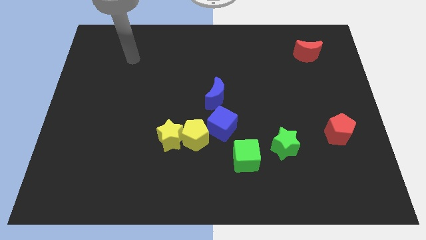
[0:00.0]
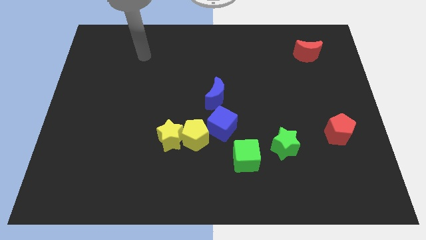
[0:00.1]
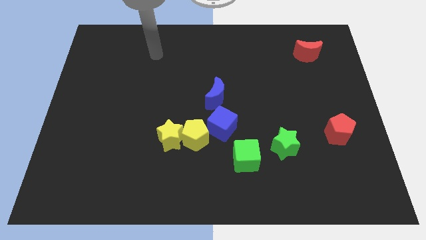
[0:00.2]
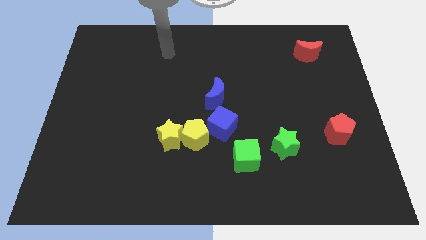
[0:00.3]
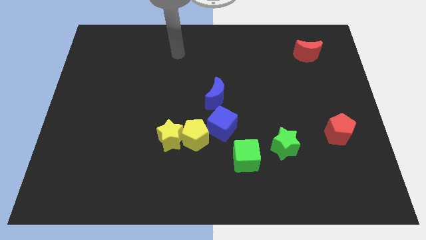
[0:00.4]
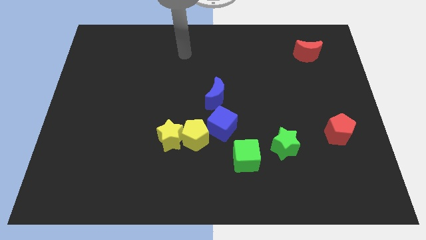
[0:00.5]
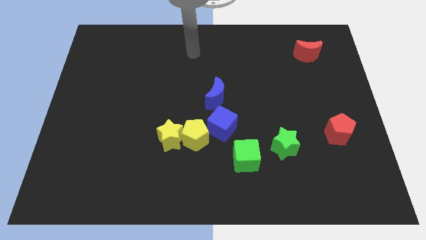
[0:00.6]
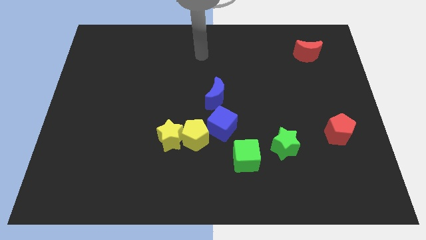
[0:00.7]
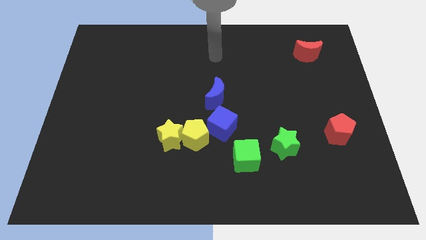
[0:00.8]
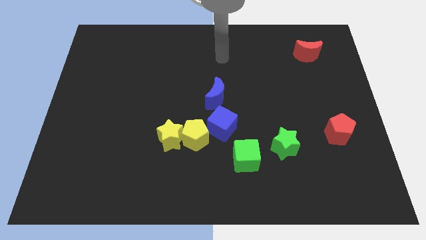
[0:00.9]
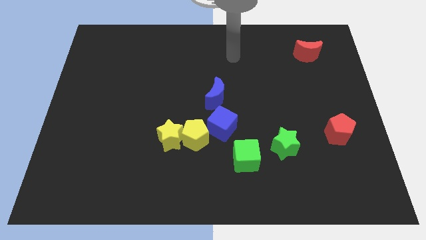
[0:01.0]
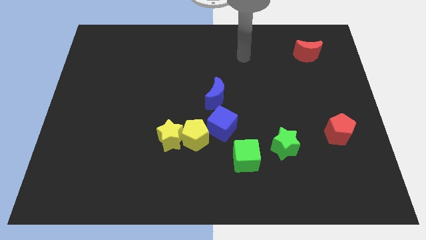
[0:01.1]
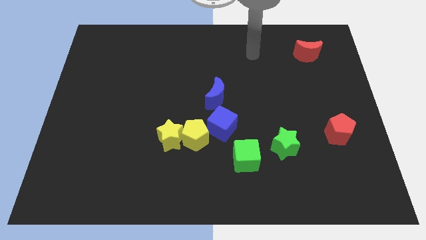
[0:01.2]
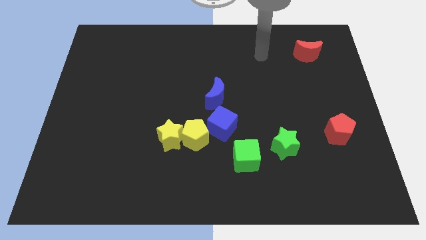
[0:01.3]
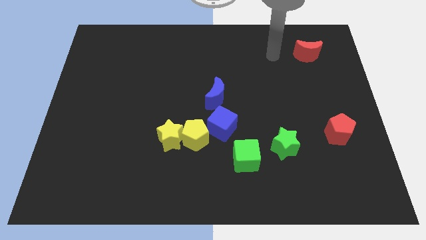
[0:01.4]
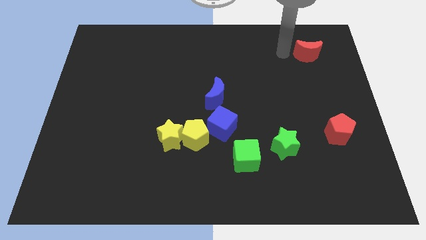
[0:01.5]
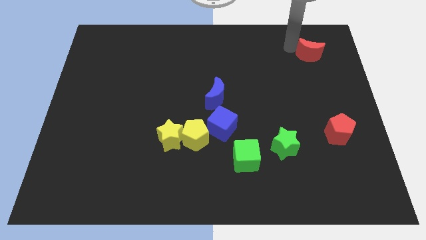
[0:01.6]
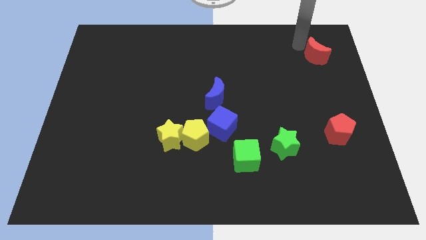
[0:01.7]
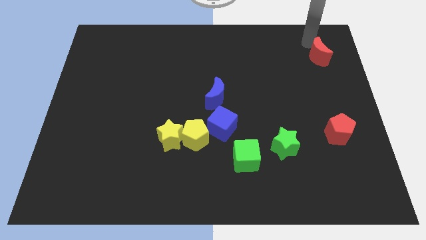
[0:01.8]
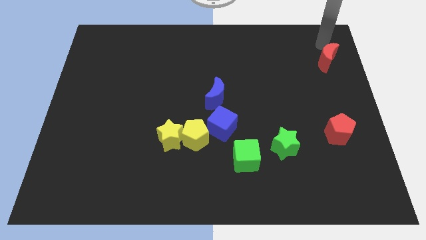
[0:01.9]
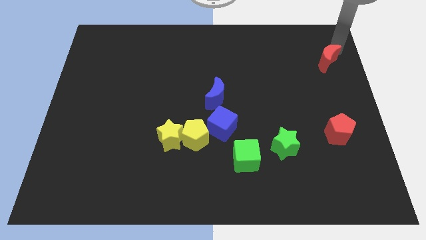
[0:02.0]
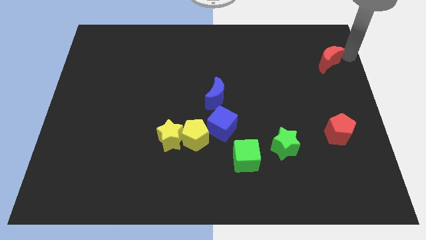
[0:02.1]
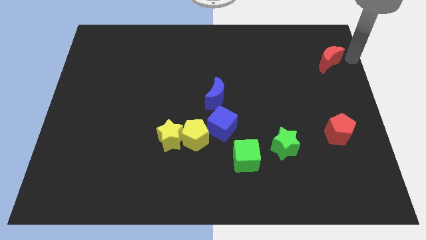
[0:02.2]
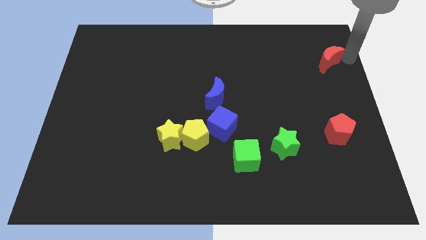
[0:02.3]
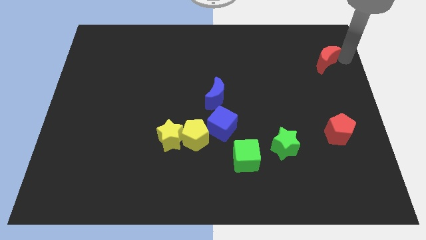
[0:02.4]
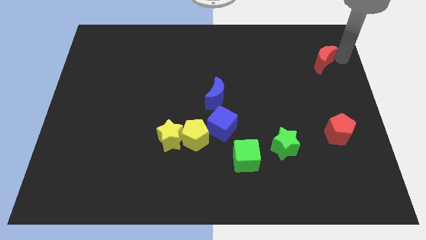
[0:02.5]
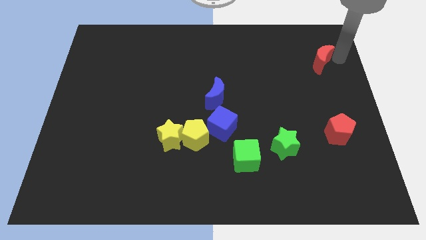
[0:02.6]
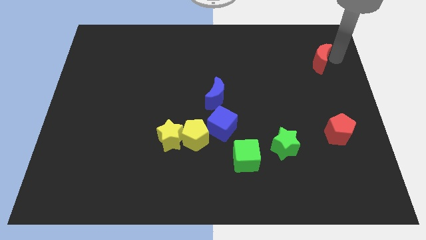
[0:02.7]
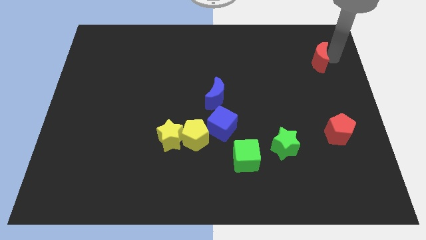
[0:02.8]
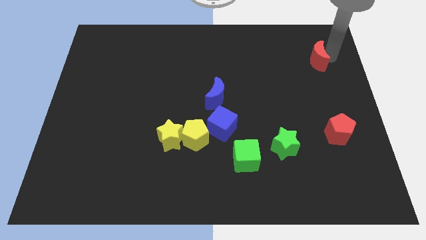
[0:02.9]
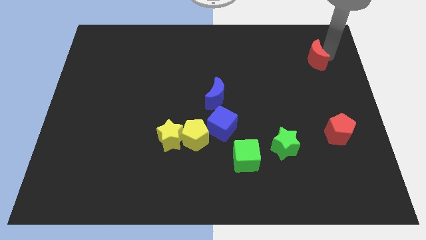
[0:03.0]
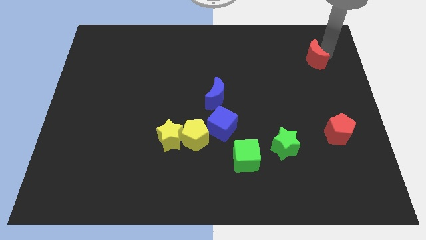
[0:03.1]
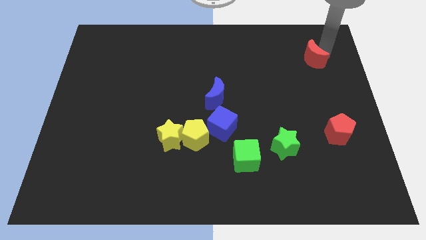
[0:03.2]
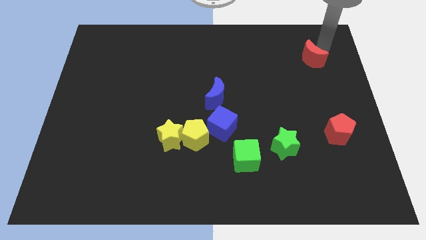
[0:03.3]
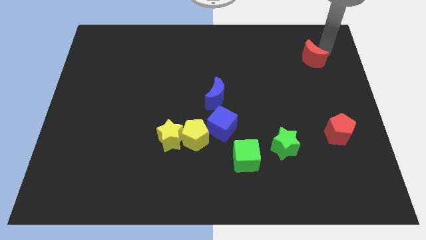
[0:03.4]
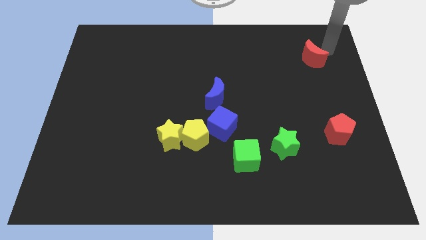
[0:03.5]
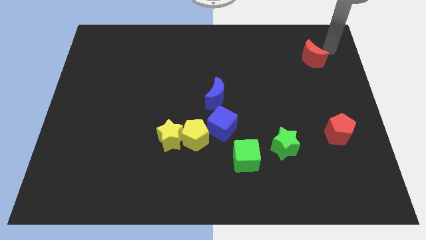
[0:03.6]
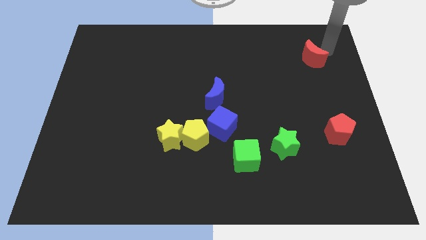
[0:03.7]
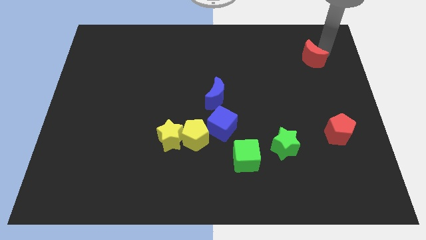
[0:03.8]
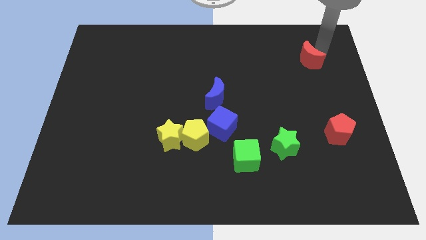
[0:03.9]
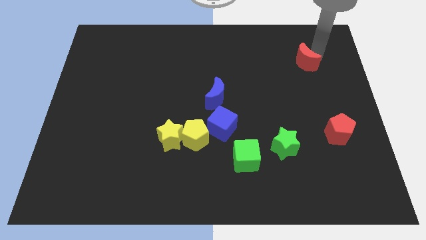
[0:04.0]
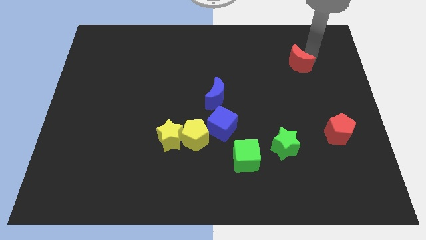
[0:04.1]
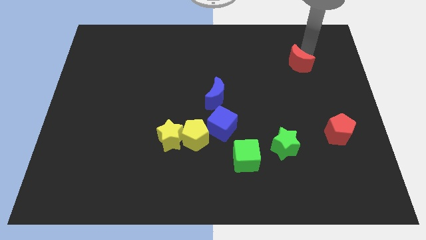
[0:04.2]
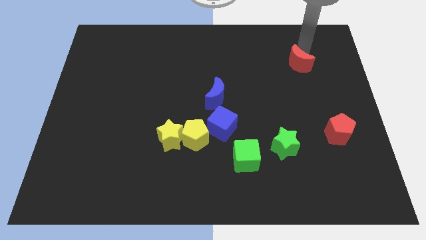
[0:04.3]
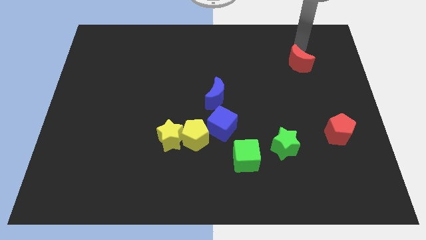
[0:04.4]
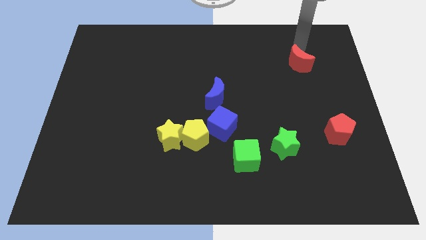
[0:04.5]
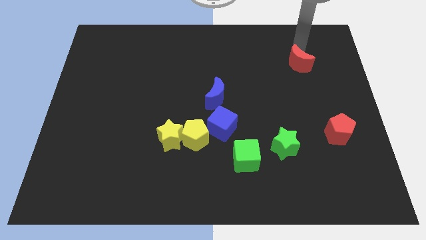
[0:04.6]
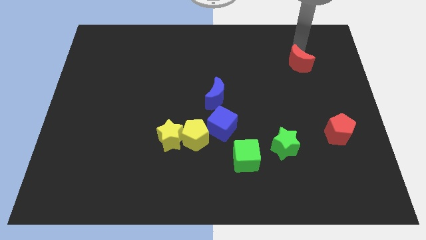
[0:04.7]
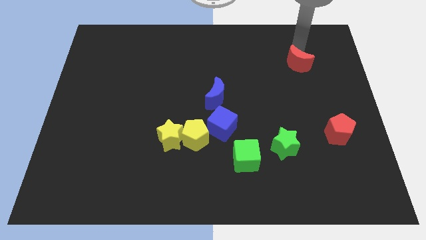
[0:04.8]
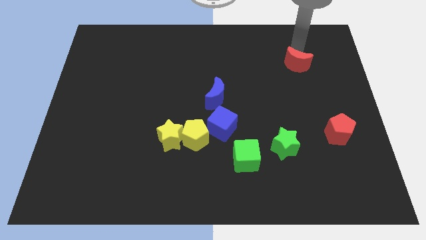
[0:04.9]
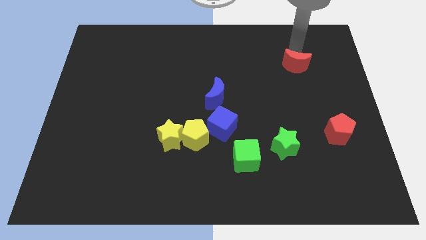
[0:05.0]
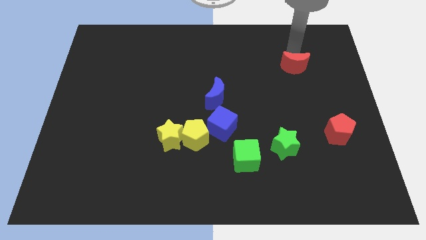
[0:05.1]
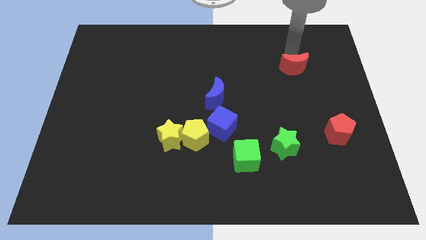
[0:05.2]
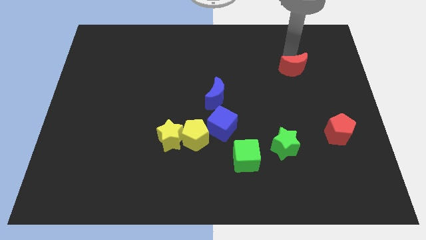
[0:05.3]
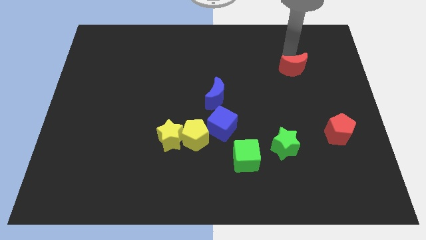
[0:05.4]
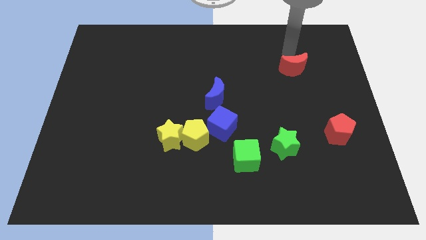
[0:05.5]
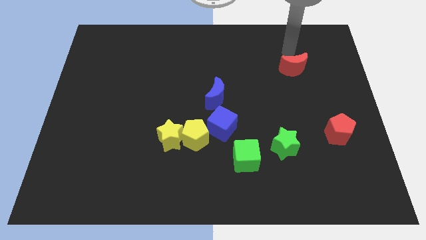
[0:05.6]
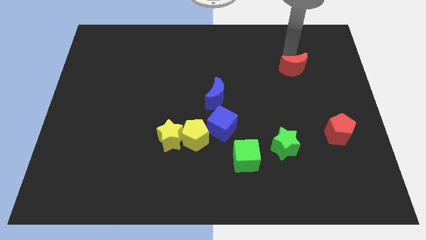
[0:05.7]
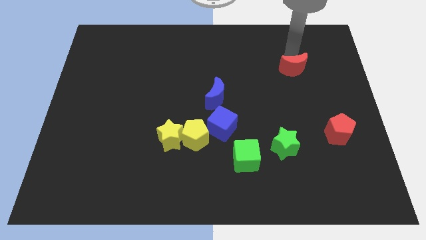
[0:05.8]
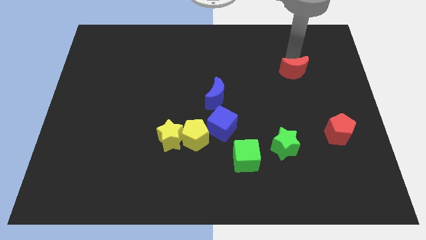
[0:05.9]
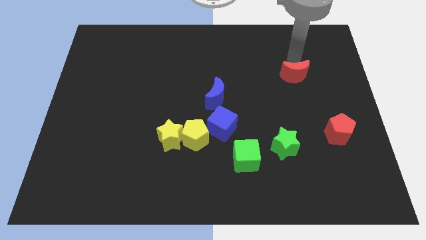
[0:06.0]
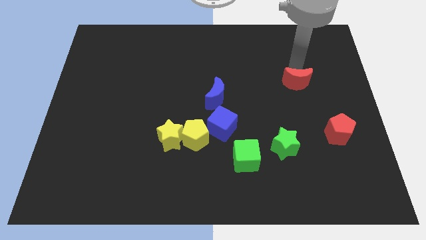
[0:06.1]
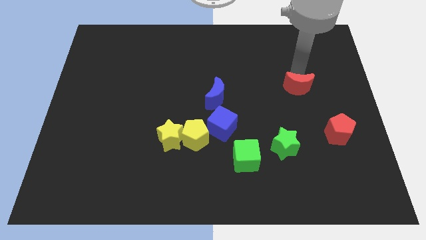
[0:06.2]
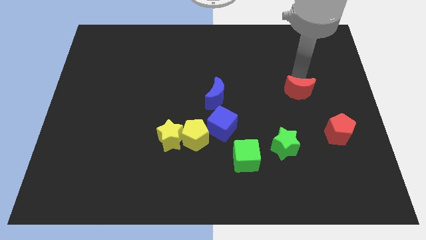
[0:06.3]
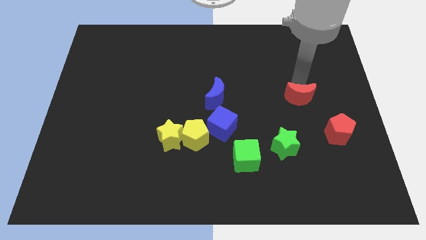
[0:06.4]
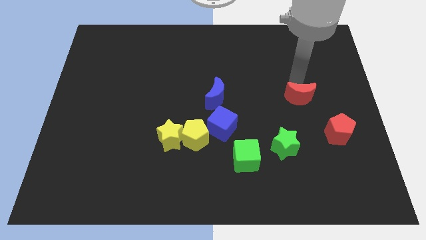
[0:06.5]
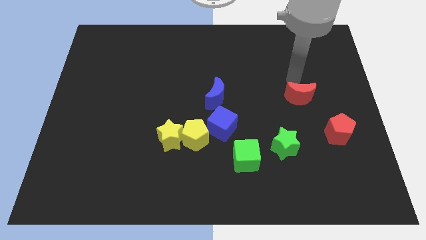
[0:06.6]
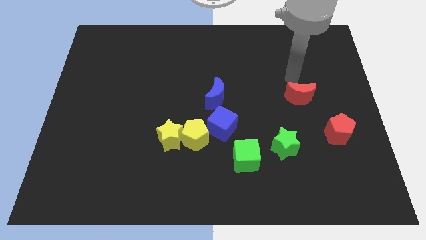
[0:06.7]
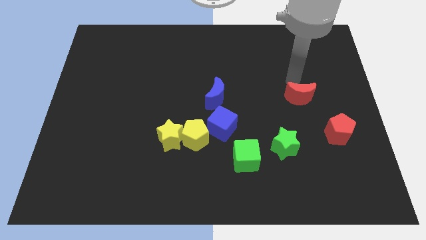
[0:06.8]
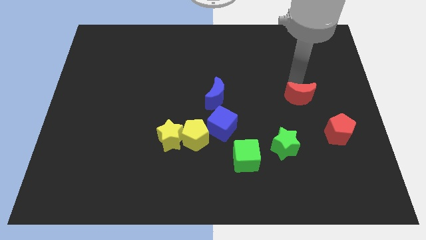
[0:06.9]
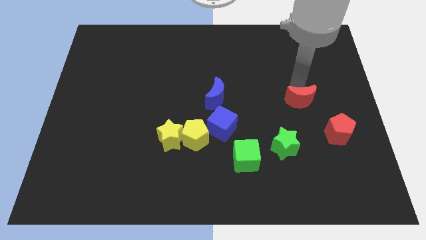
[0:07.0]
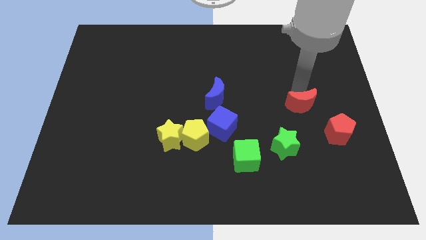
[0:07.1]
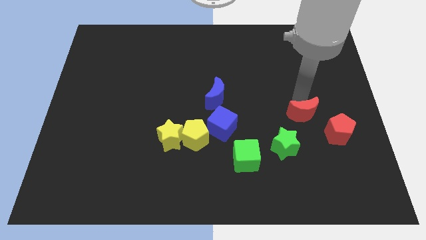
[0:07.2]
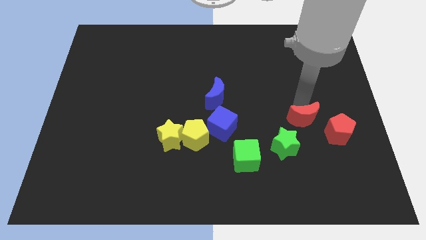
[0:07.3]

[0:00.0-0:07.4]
slide the red moon down
